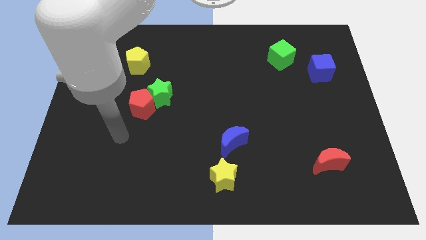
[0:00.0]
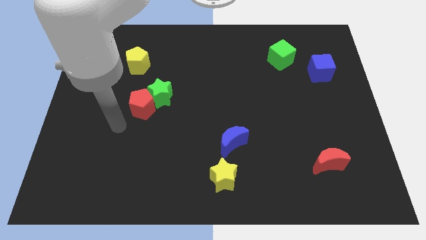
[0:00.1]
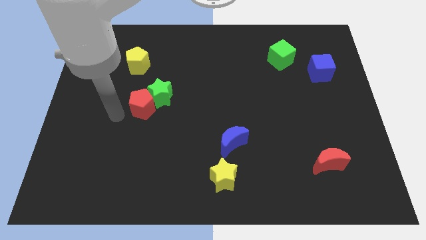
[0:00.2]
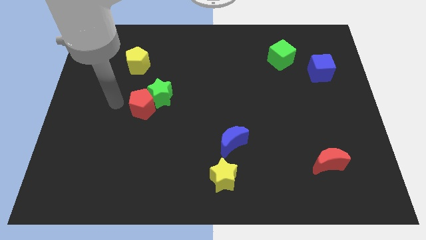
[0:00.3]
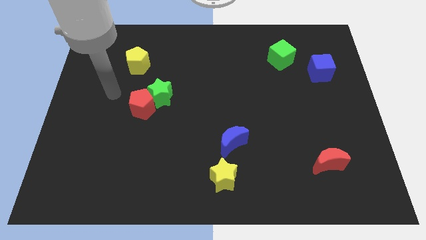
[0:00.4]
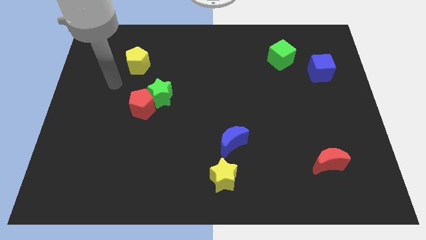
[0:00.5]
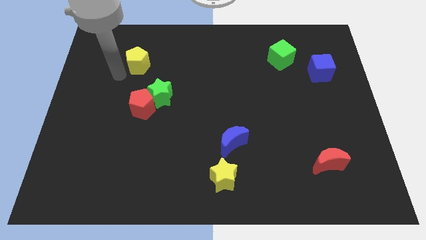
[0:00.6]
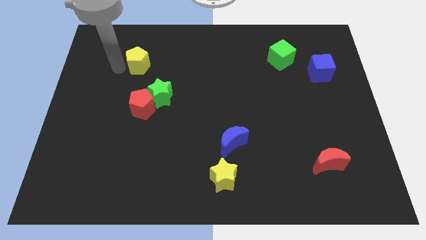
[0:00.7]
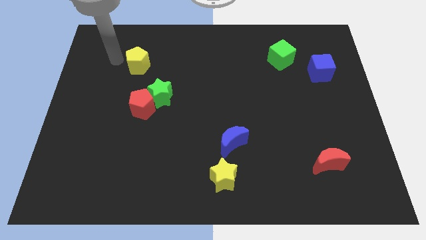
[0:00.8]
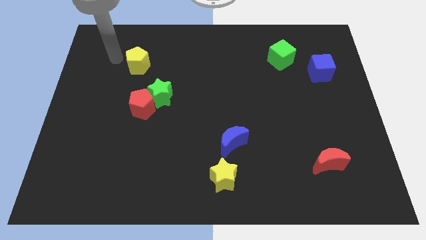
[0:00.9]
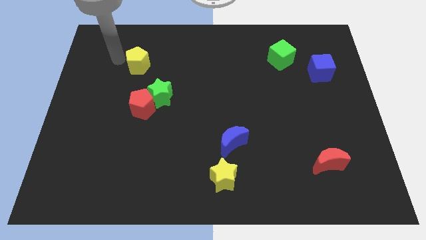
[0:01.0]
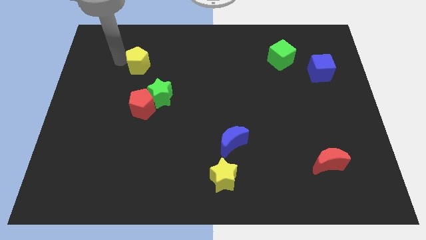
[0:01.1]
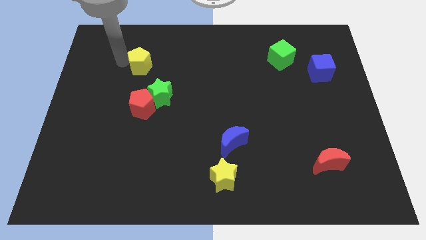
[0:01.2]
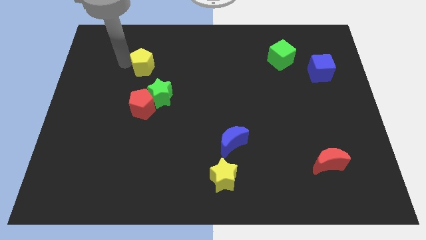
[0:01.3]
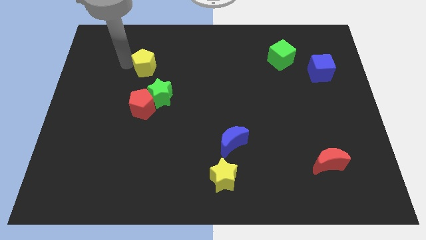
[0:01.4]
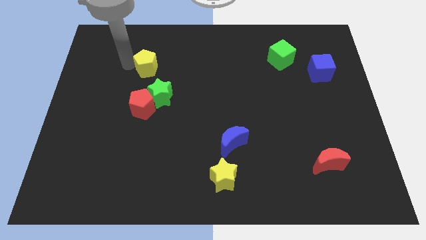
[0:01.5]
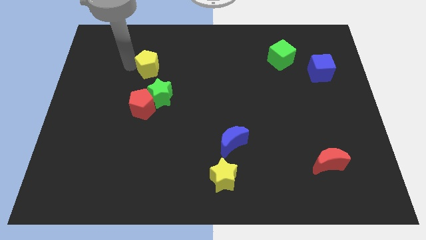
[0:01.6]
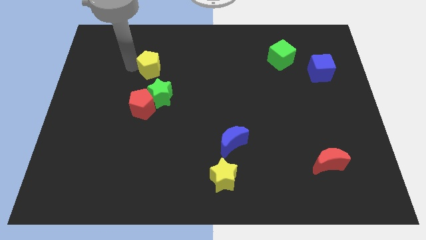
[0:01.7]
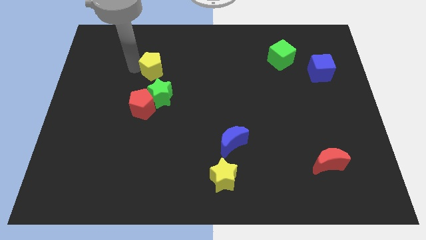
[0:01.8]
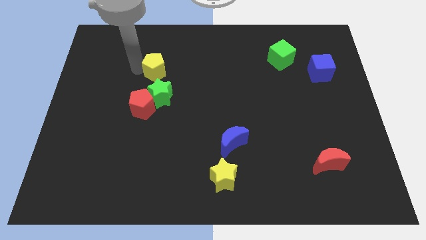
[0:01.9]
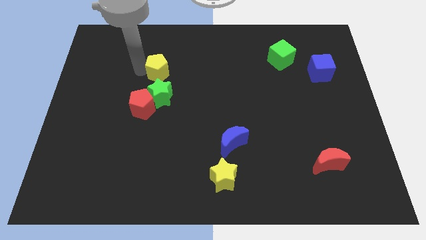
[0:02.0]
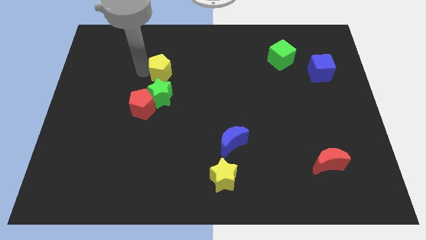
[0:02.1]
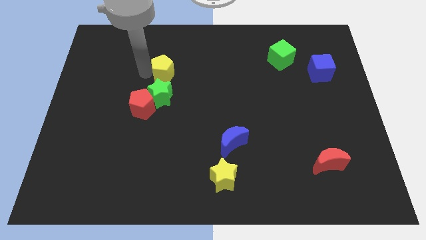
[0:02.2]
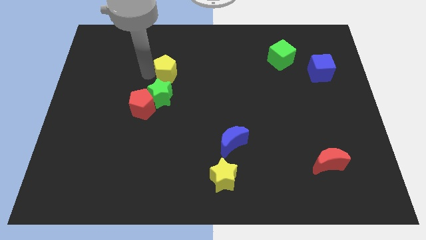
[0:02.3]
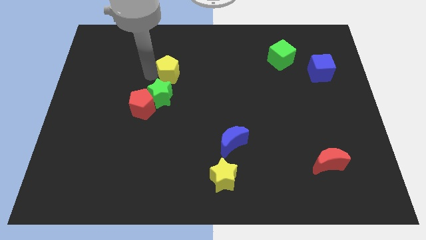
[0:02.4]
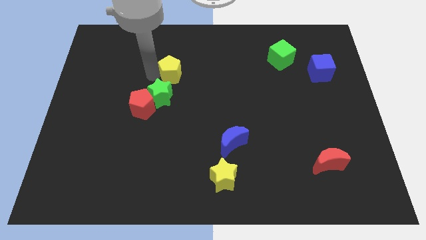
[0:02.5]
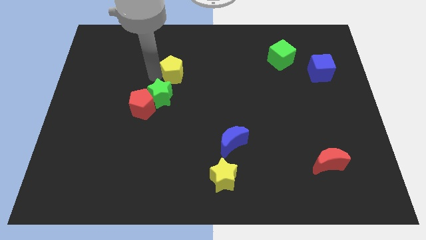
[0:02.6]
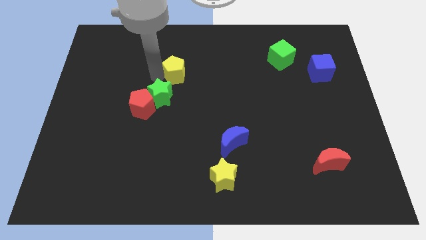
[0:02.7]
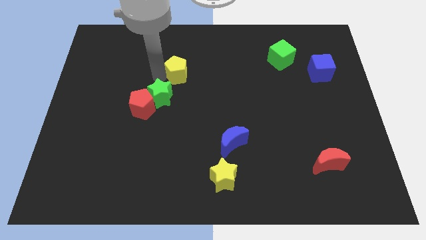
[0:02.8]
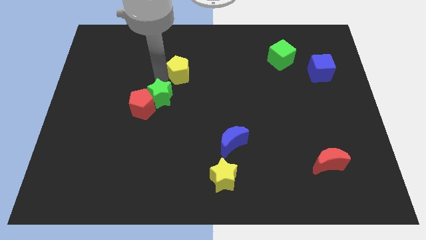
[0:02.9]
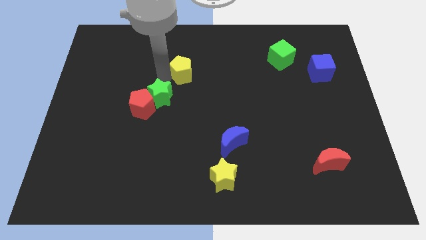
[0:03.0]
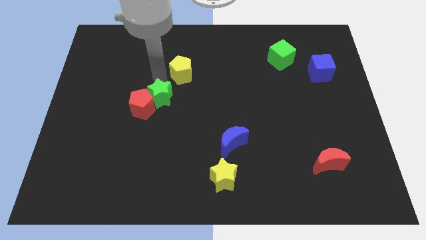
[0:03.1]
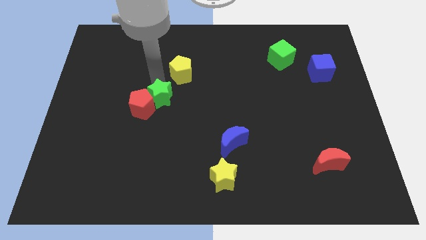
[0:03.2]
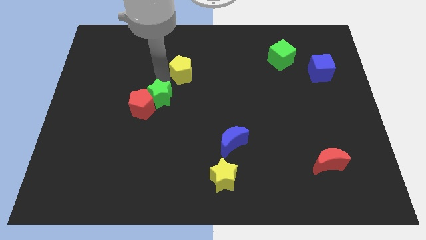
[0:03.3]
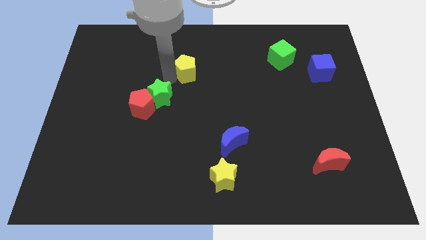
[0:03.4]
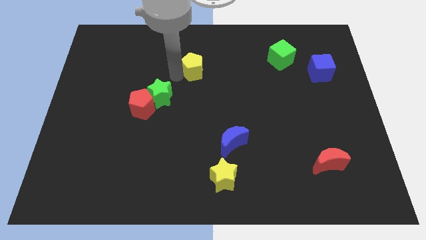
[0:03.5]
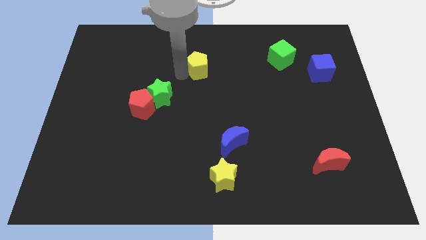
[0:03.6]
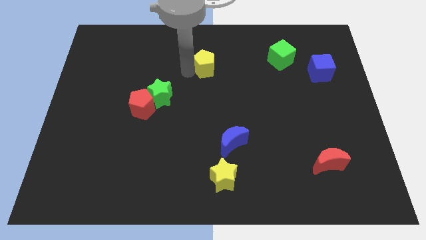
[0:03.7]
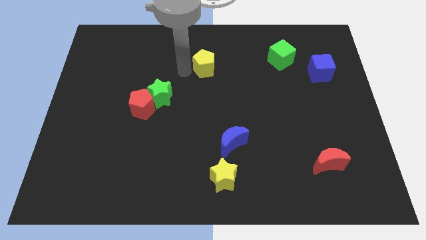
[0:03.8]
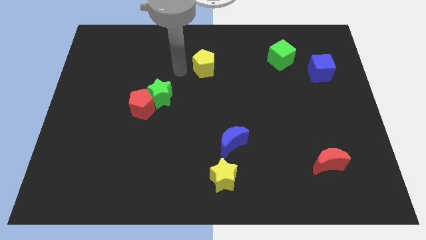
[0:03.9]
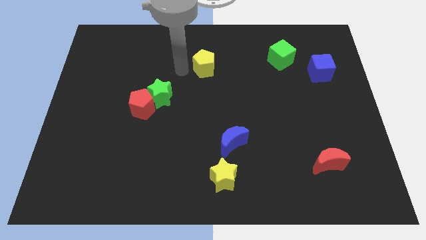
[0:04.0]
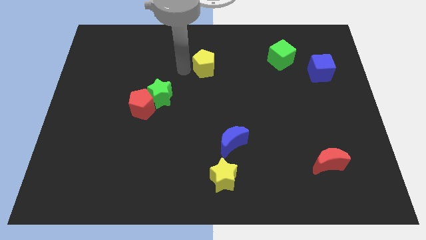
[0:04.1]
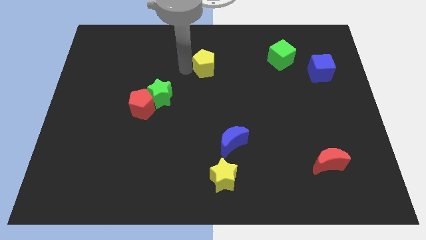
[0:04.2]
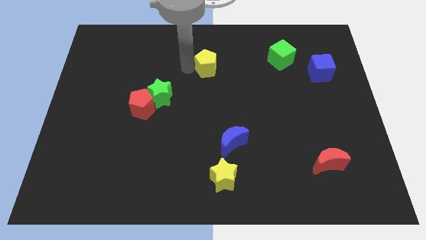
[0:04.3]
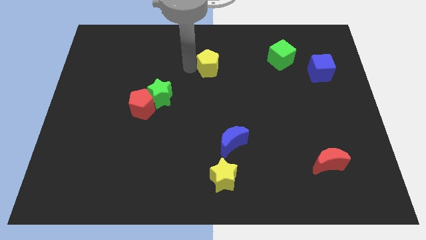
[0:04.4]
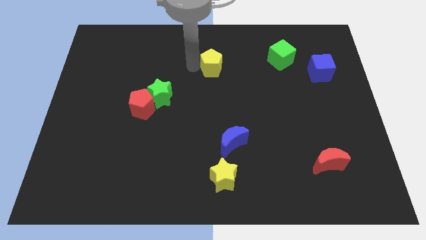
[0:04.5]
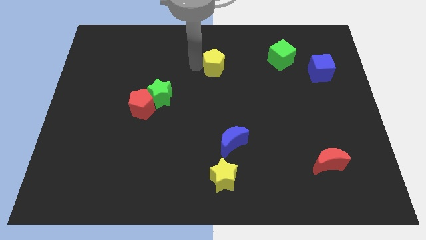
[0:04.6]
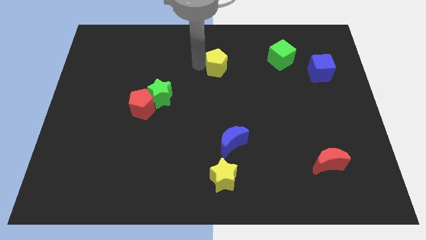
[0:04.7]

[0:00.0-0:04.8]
push the yellow pentagon to the right

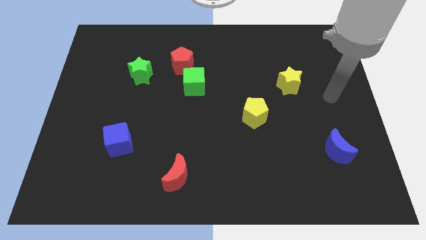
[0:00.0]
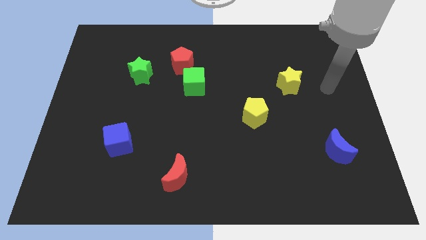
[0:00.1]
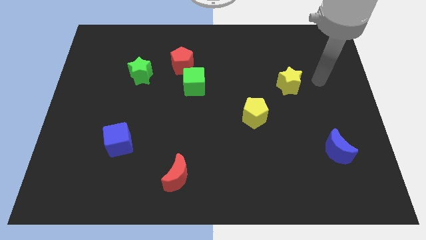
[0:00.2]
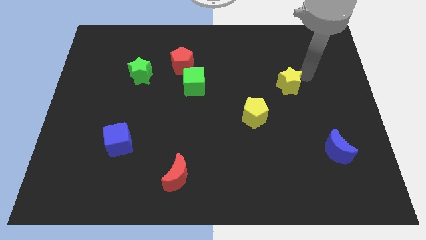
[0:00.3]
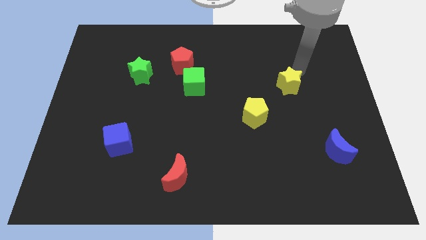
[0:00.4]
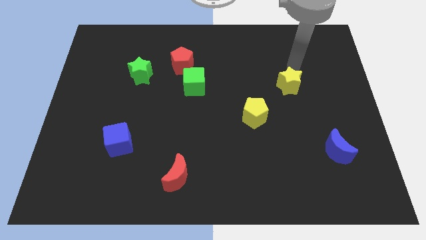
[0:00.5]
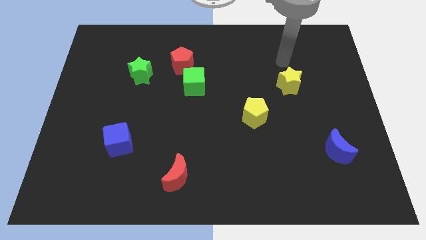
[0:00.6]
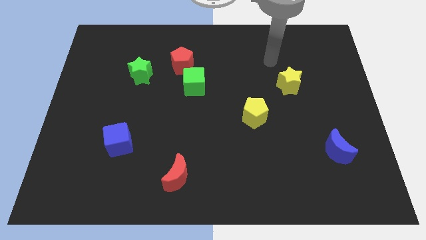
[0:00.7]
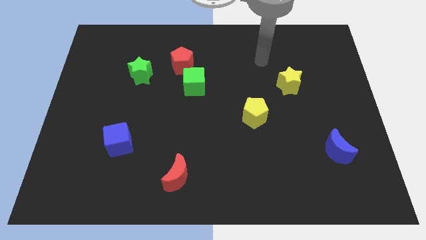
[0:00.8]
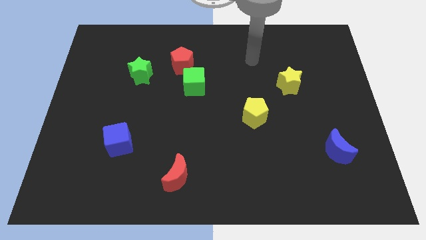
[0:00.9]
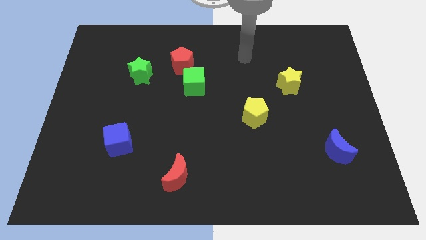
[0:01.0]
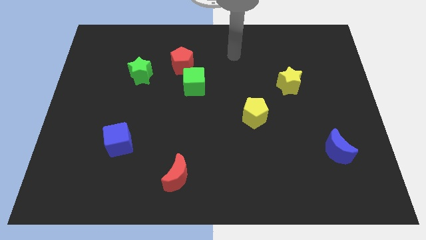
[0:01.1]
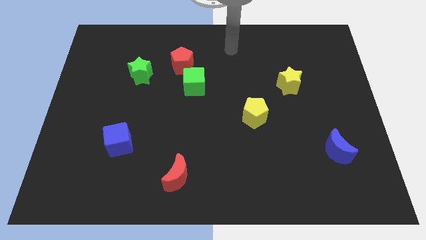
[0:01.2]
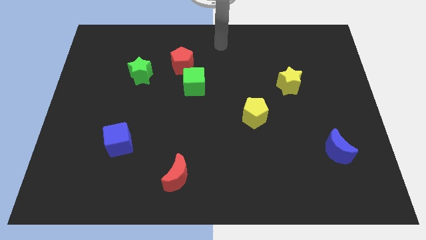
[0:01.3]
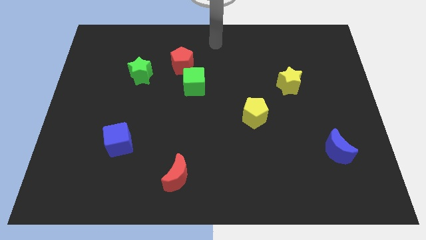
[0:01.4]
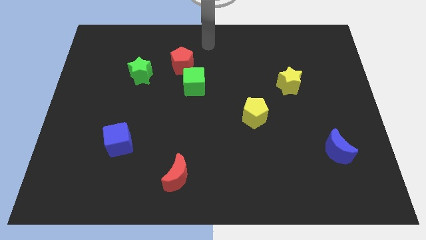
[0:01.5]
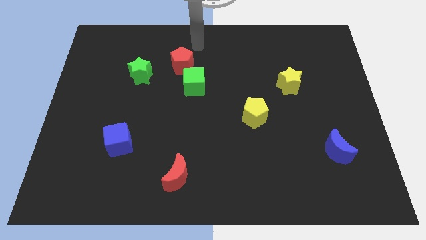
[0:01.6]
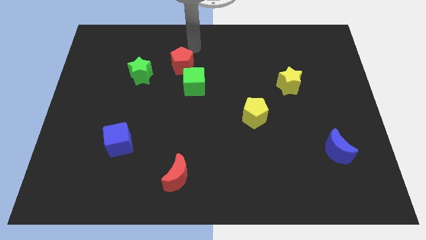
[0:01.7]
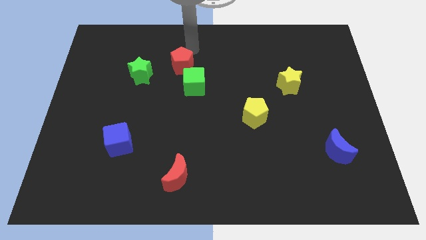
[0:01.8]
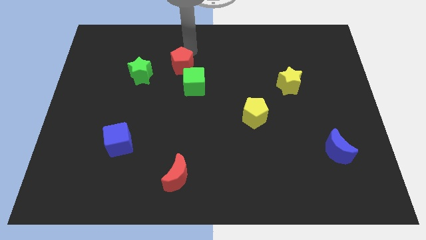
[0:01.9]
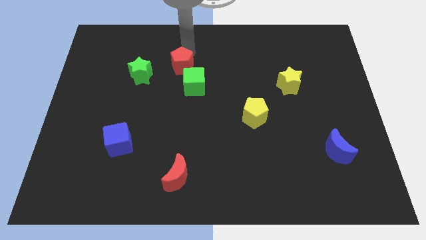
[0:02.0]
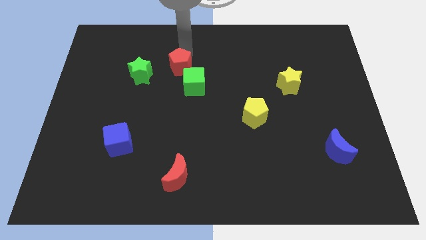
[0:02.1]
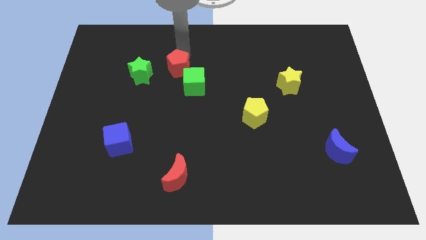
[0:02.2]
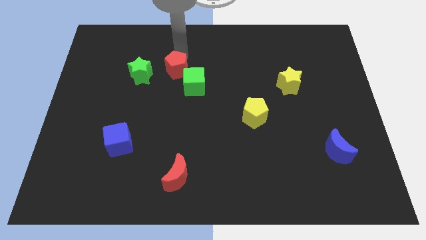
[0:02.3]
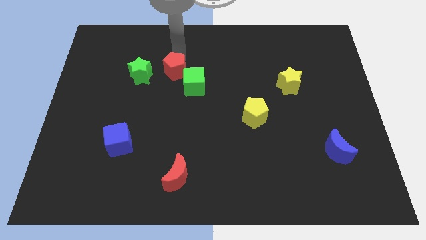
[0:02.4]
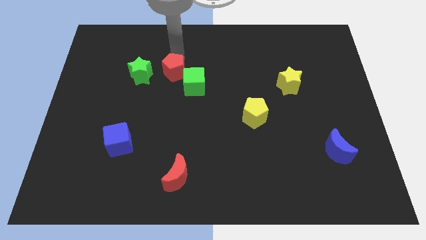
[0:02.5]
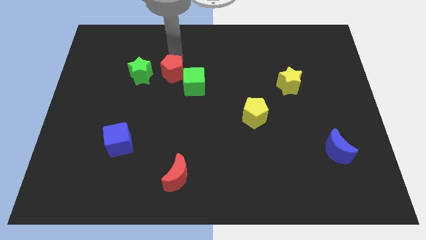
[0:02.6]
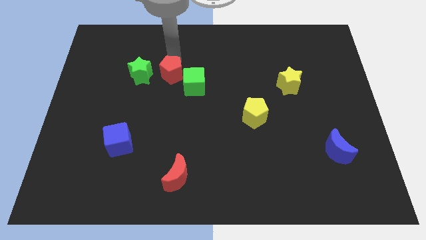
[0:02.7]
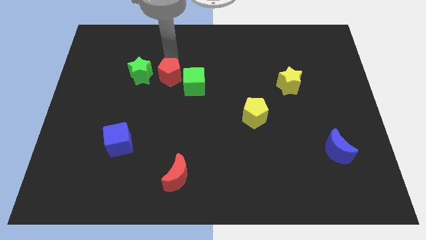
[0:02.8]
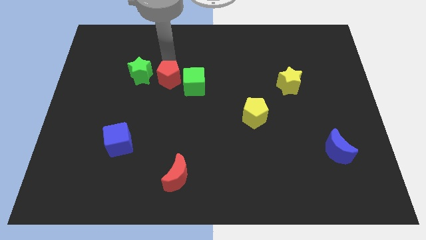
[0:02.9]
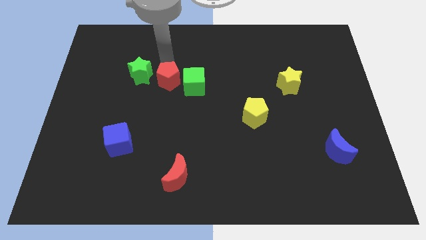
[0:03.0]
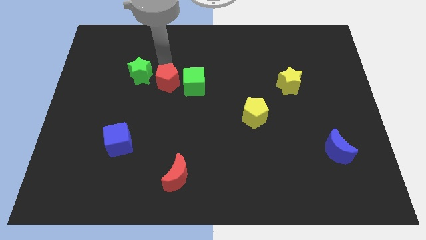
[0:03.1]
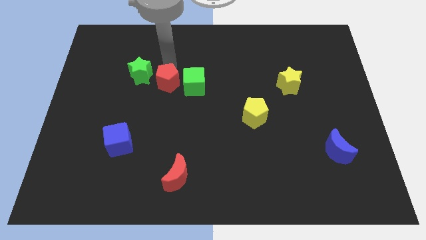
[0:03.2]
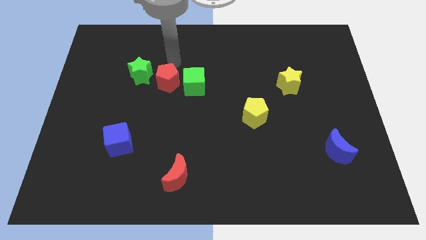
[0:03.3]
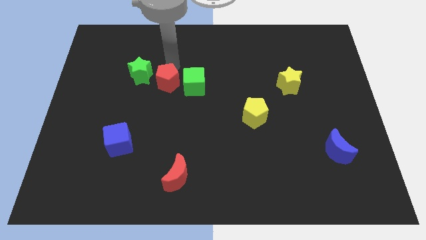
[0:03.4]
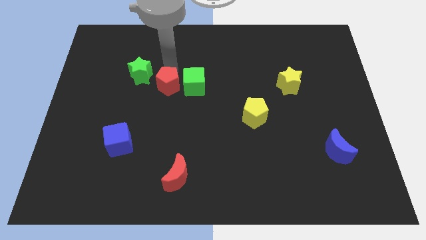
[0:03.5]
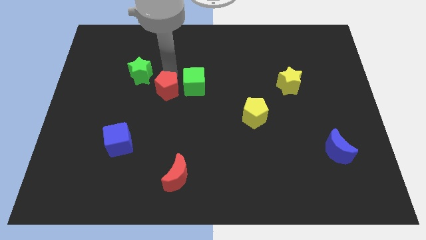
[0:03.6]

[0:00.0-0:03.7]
slightly slide the red pentagon down
